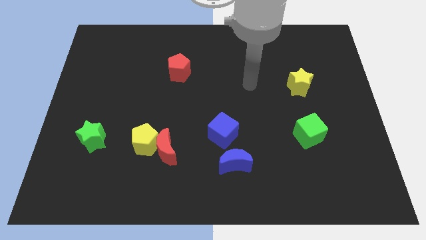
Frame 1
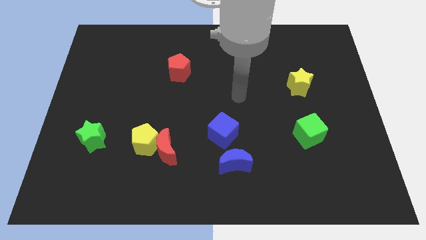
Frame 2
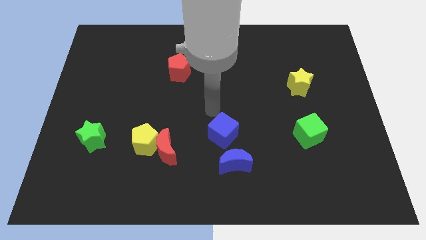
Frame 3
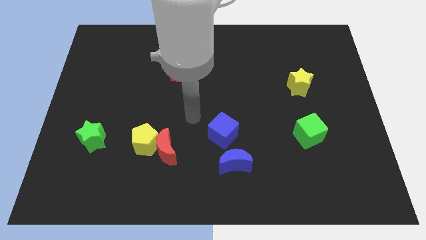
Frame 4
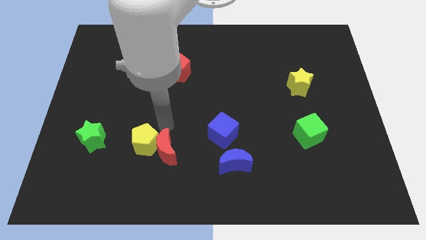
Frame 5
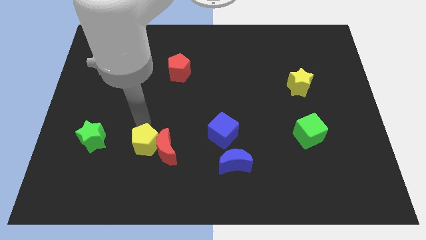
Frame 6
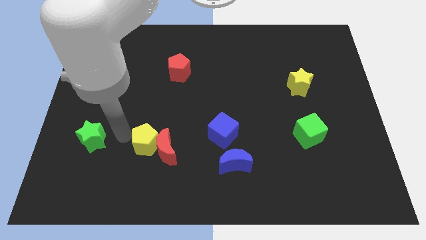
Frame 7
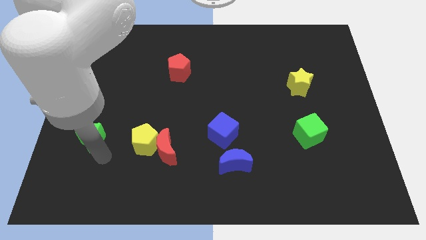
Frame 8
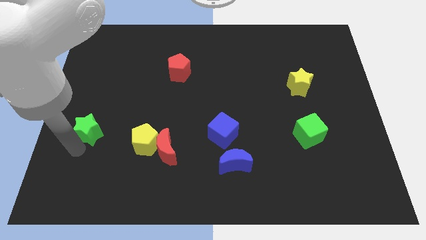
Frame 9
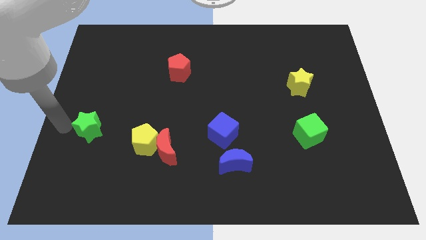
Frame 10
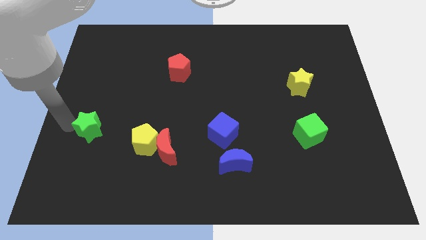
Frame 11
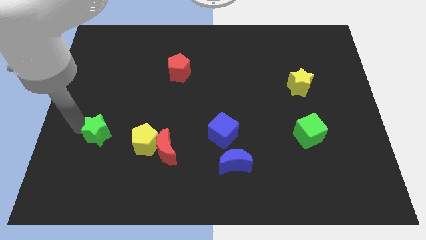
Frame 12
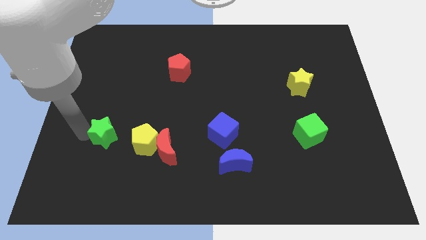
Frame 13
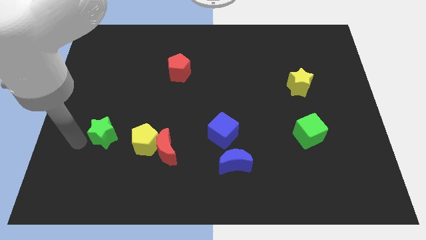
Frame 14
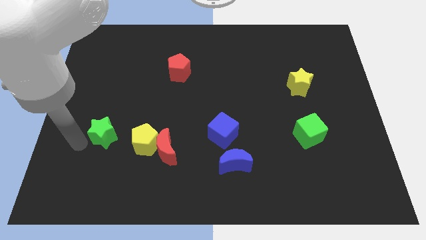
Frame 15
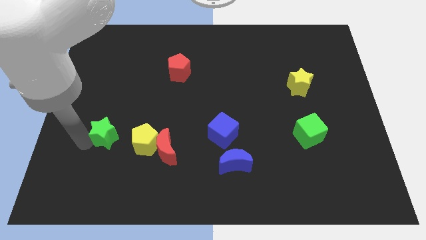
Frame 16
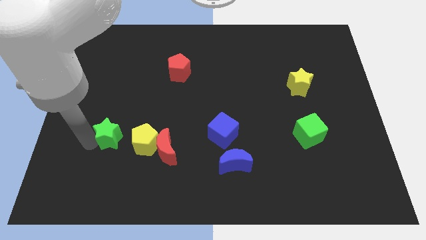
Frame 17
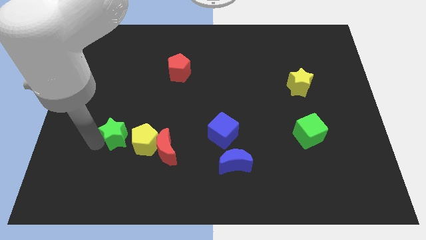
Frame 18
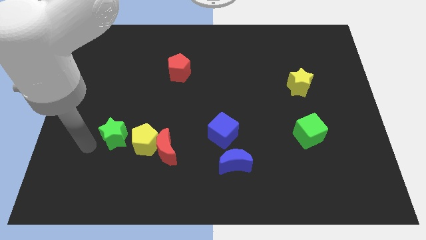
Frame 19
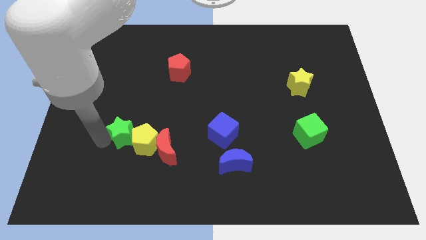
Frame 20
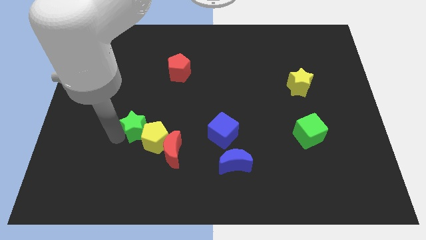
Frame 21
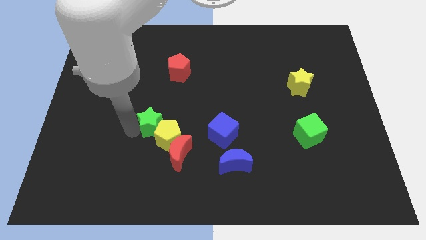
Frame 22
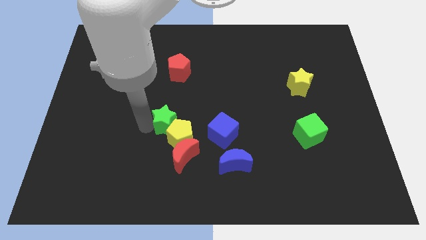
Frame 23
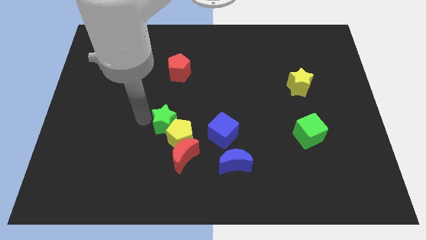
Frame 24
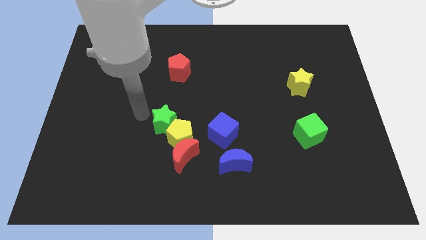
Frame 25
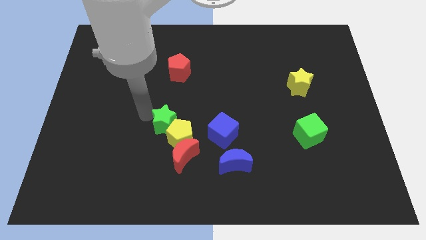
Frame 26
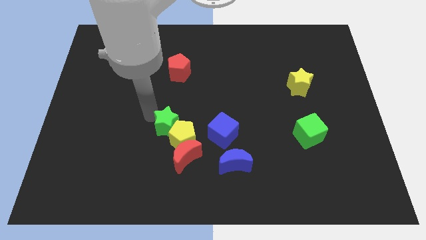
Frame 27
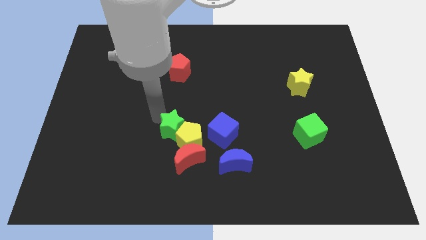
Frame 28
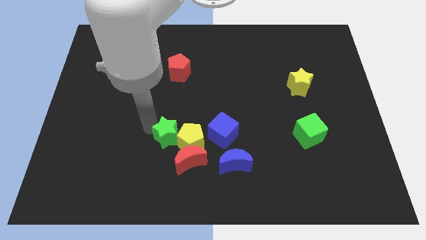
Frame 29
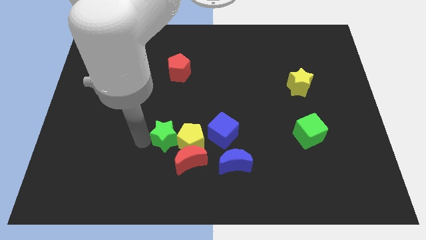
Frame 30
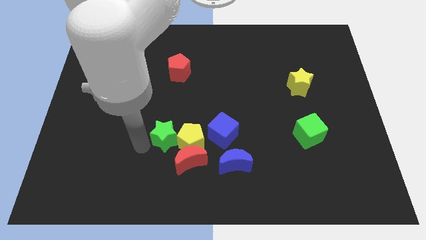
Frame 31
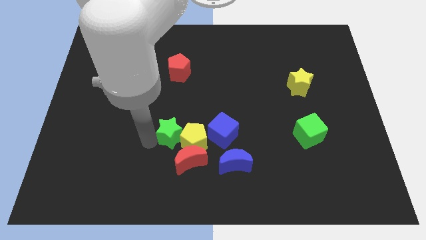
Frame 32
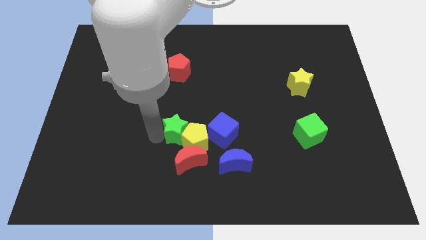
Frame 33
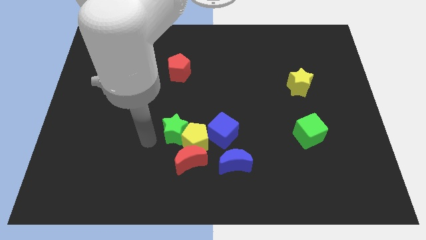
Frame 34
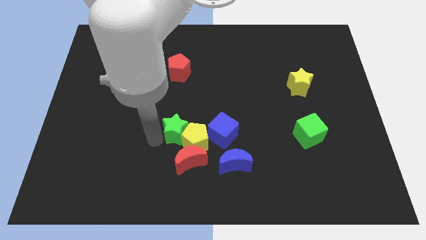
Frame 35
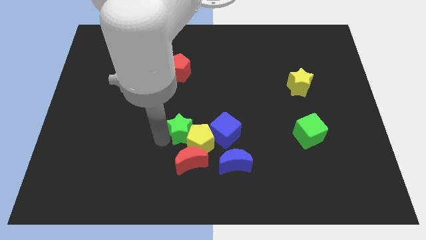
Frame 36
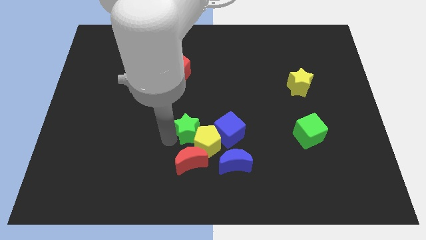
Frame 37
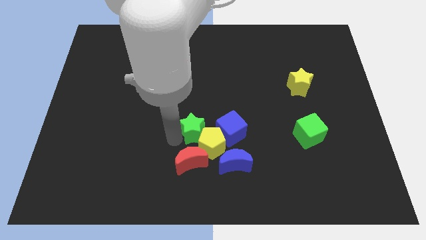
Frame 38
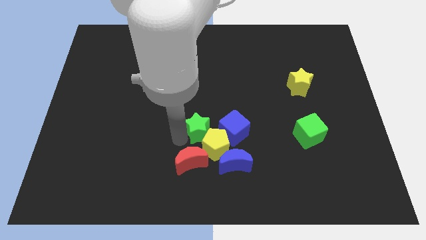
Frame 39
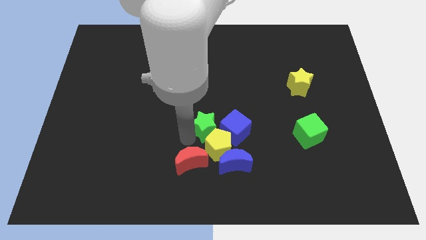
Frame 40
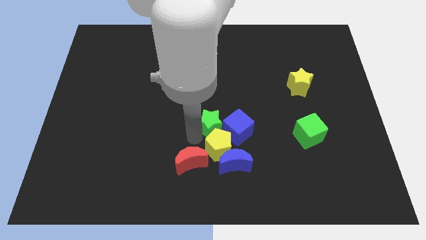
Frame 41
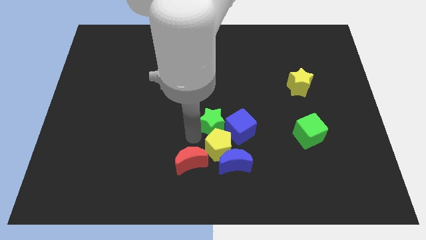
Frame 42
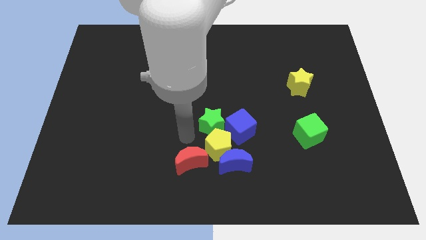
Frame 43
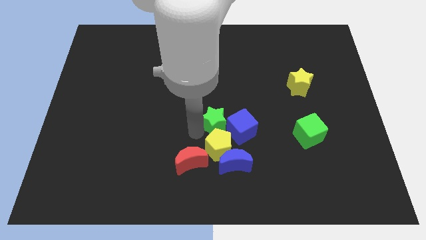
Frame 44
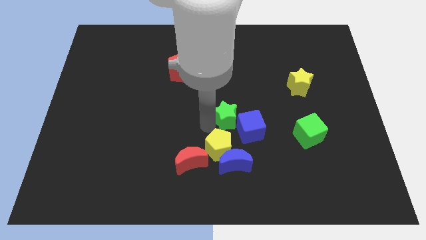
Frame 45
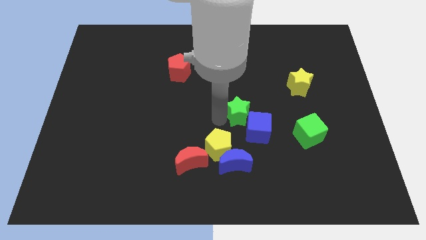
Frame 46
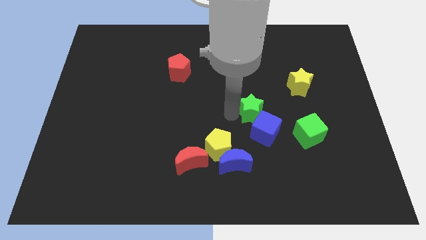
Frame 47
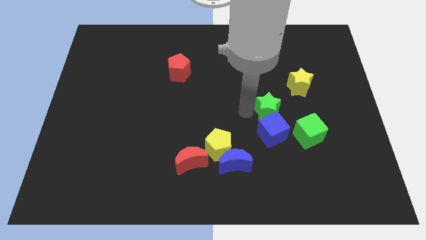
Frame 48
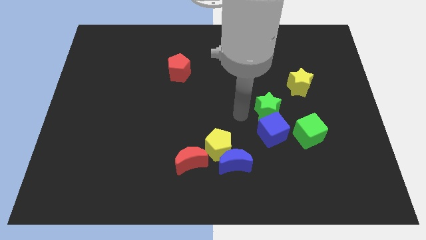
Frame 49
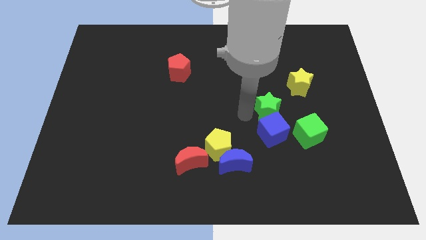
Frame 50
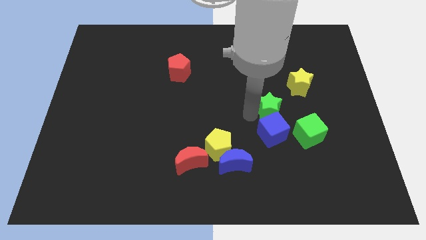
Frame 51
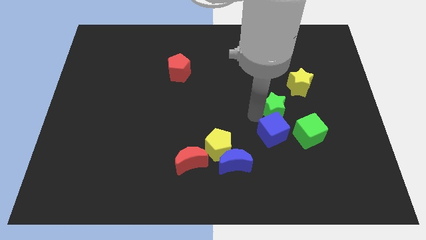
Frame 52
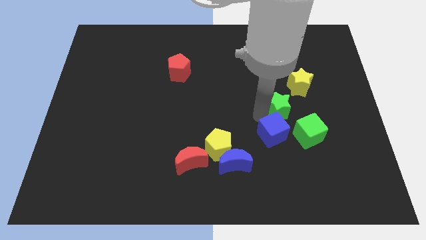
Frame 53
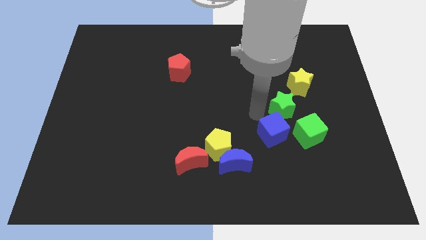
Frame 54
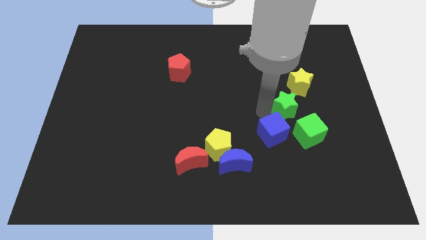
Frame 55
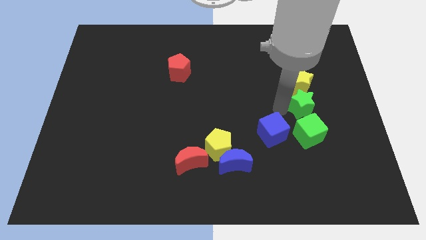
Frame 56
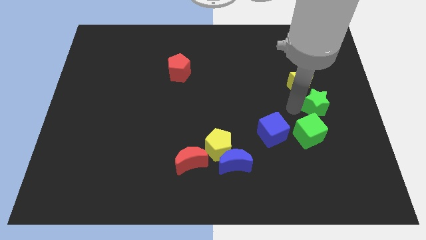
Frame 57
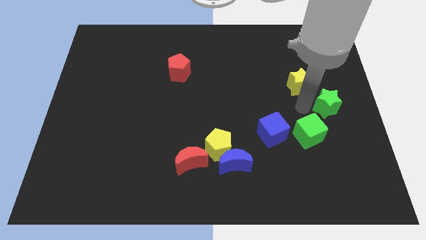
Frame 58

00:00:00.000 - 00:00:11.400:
push the green star to the center right

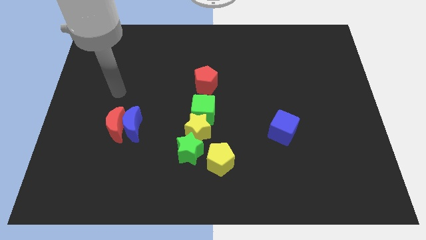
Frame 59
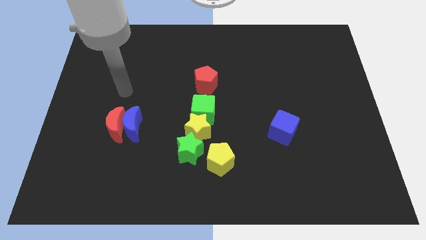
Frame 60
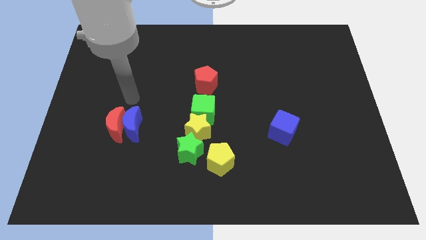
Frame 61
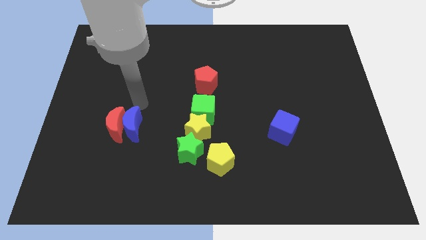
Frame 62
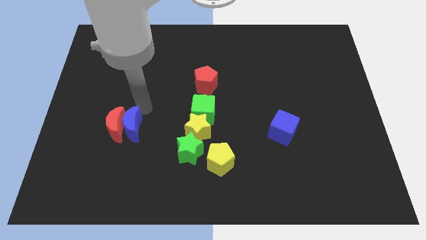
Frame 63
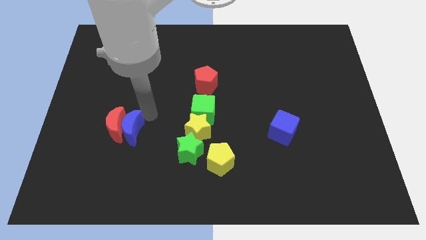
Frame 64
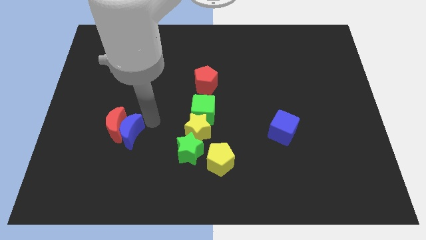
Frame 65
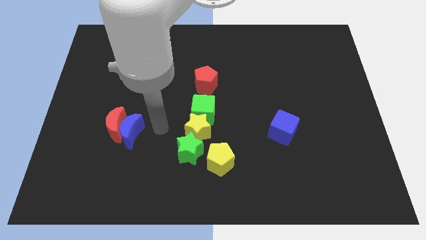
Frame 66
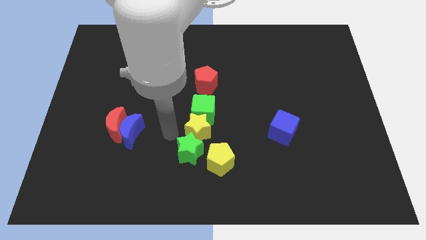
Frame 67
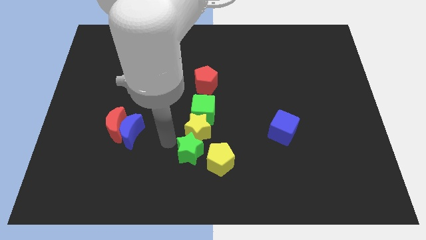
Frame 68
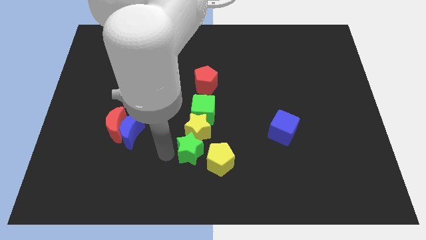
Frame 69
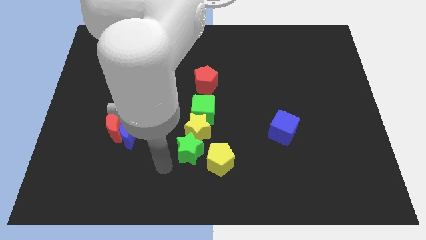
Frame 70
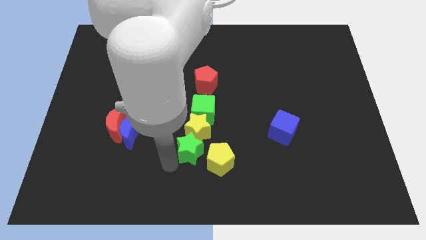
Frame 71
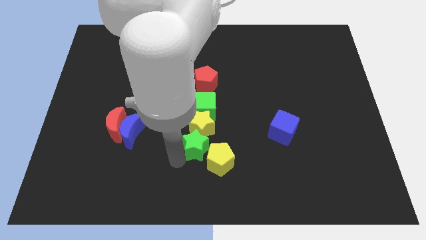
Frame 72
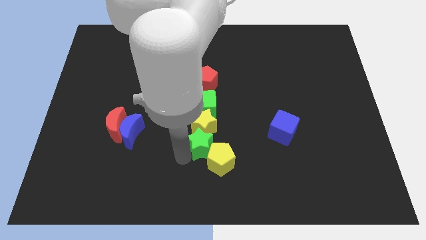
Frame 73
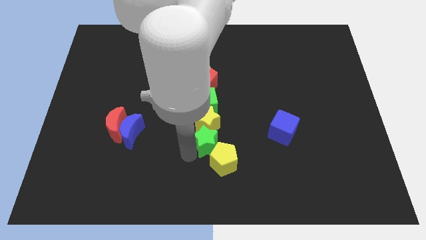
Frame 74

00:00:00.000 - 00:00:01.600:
slide the green star to the middle
